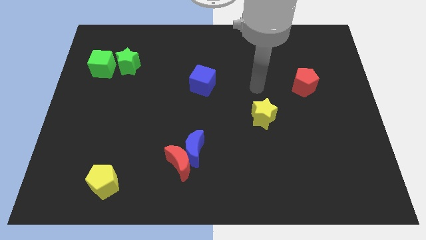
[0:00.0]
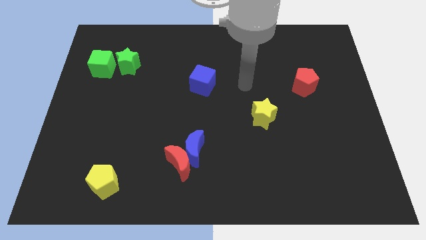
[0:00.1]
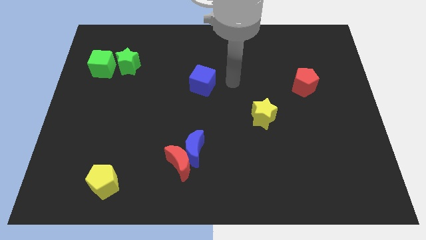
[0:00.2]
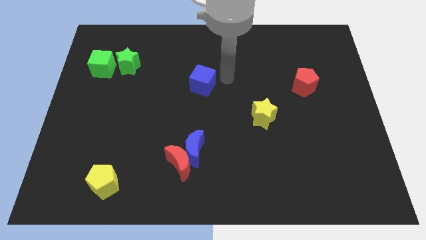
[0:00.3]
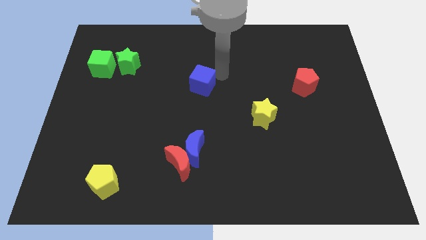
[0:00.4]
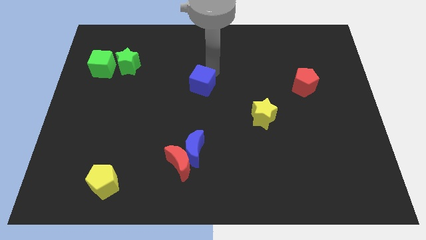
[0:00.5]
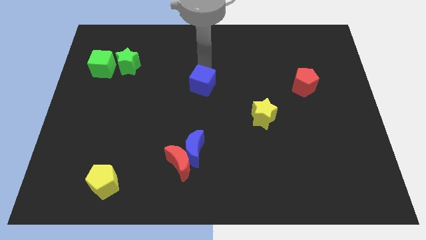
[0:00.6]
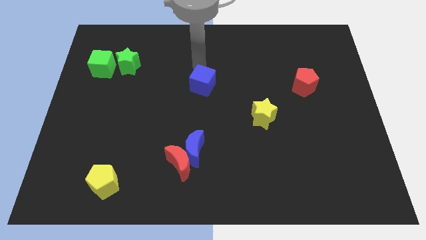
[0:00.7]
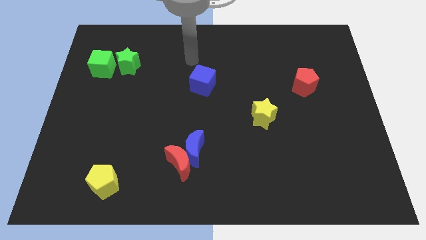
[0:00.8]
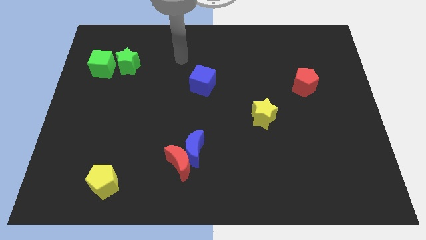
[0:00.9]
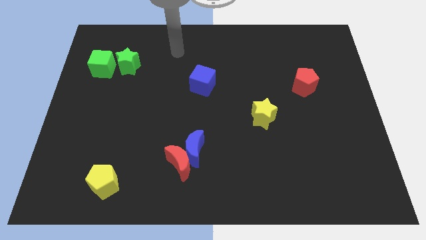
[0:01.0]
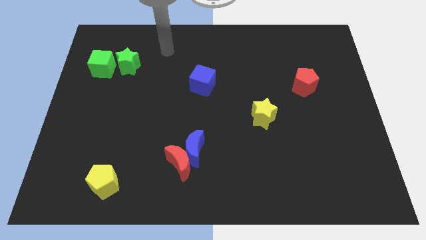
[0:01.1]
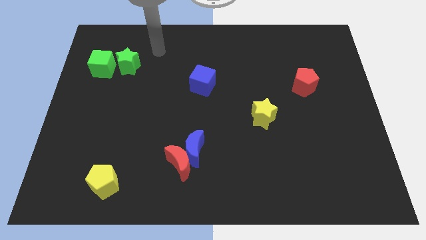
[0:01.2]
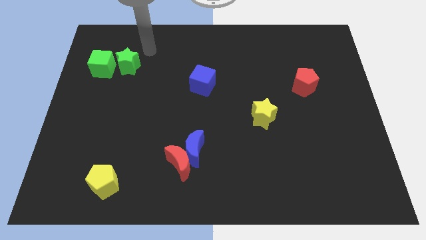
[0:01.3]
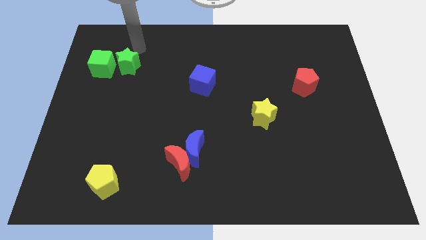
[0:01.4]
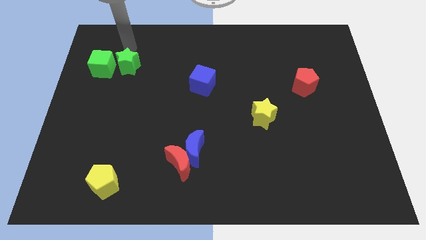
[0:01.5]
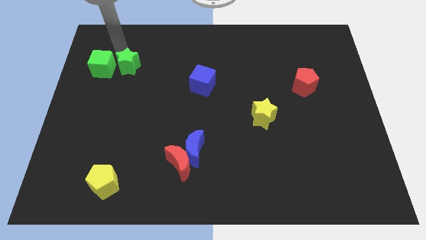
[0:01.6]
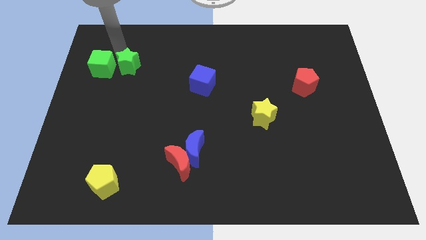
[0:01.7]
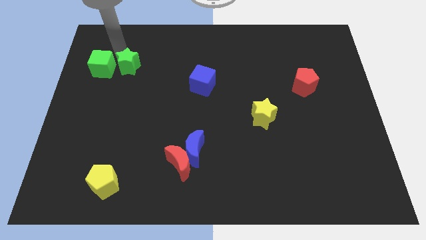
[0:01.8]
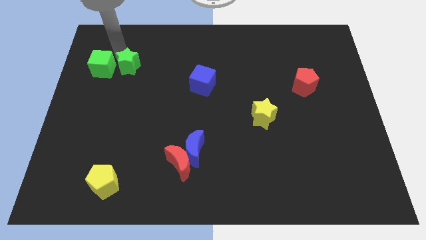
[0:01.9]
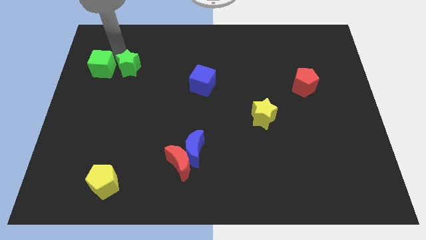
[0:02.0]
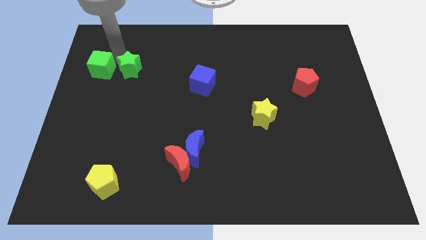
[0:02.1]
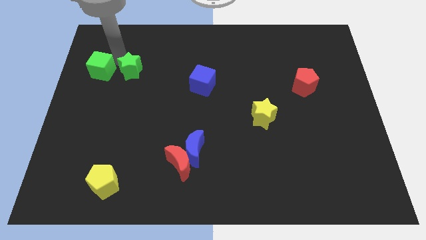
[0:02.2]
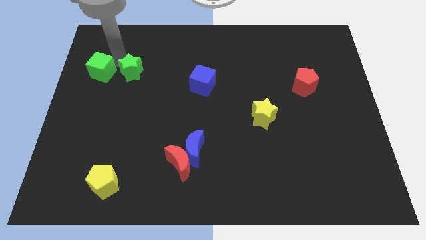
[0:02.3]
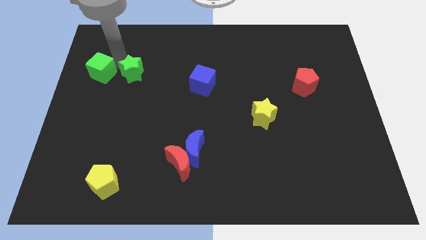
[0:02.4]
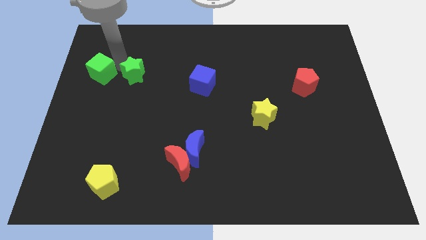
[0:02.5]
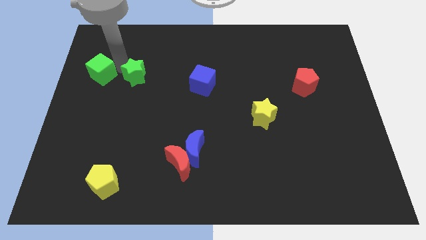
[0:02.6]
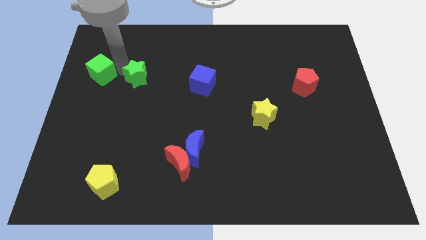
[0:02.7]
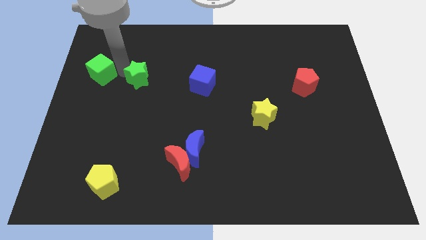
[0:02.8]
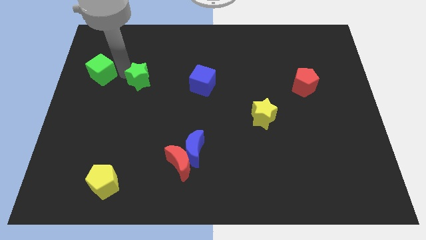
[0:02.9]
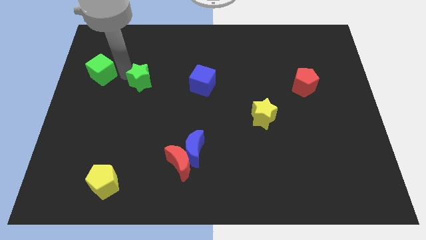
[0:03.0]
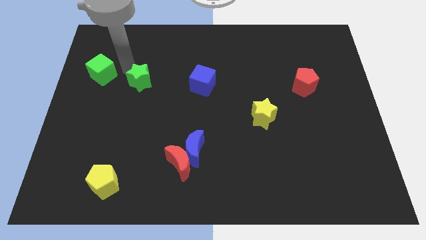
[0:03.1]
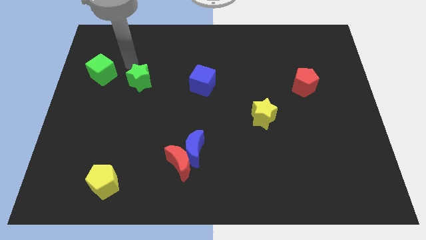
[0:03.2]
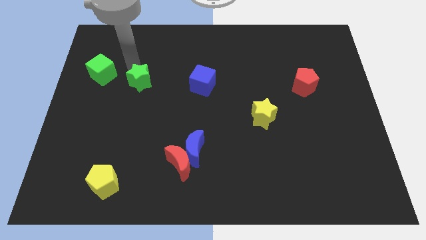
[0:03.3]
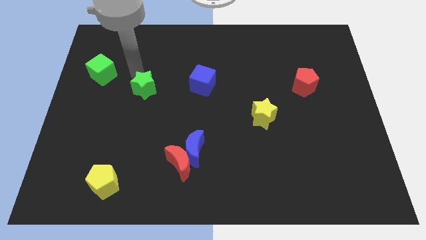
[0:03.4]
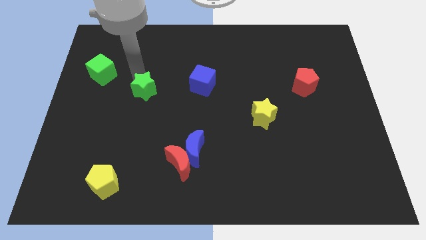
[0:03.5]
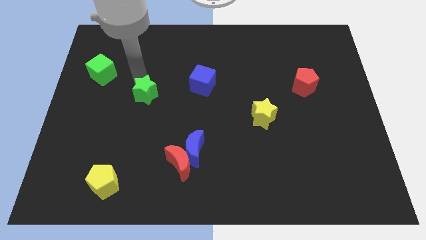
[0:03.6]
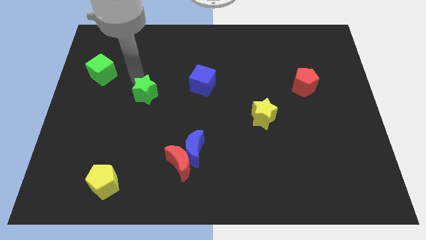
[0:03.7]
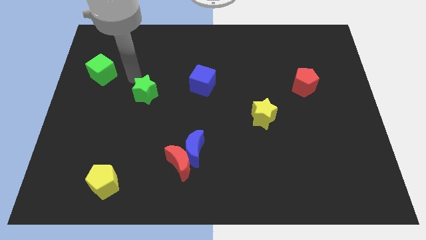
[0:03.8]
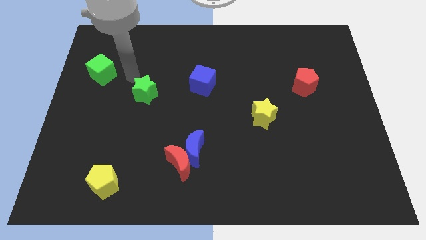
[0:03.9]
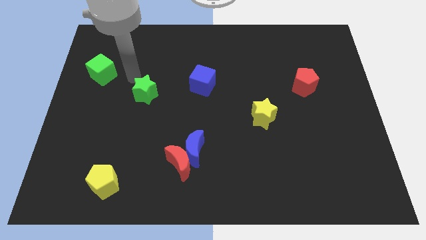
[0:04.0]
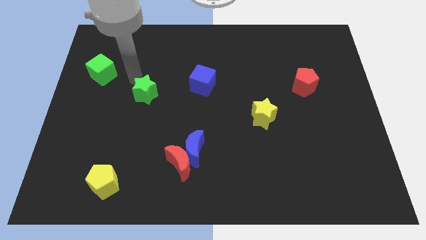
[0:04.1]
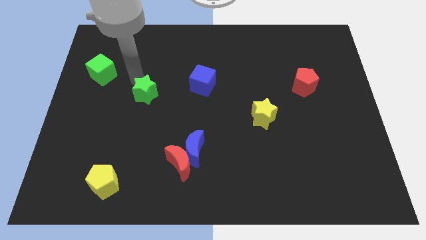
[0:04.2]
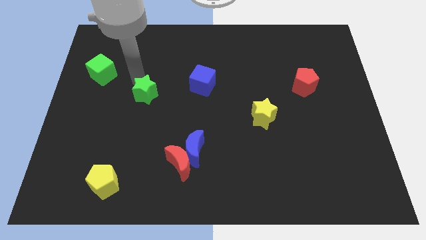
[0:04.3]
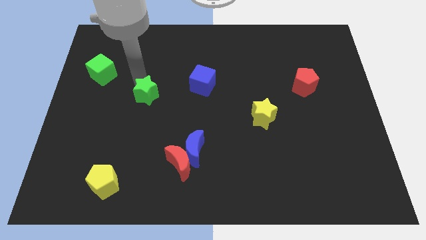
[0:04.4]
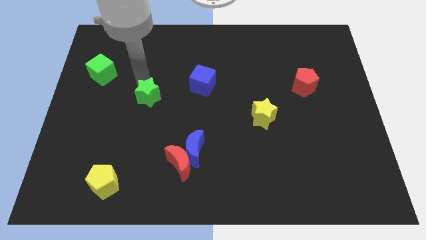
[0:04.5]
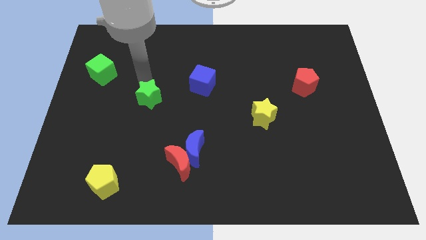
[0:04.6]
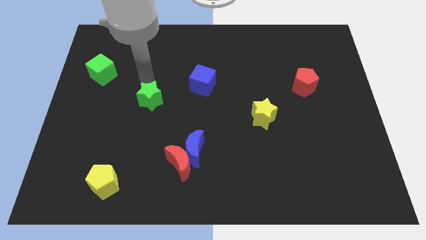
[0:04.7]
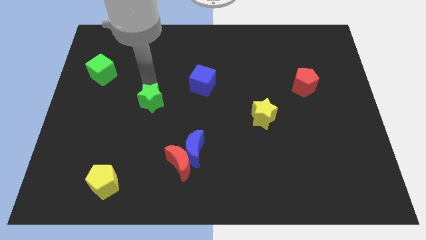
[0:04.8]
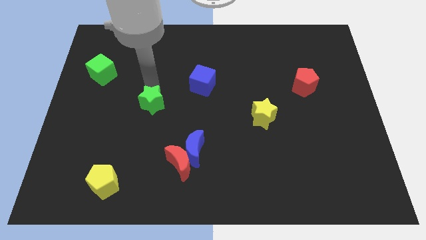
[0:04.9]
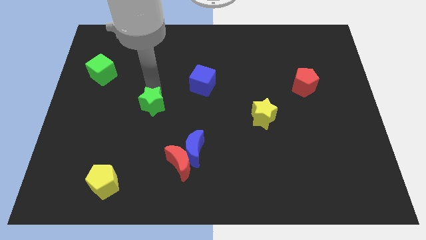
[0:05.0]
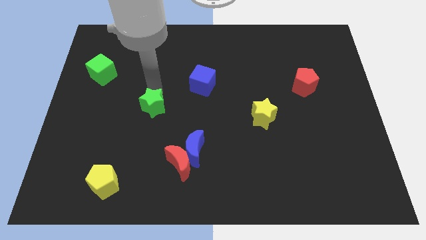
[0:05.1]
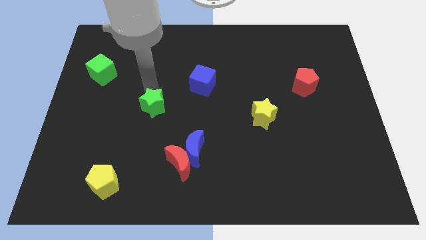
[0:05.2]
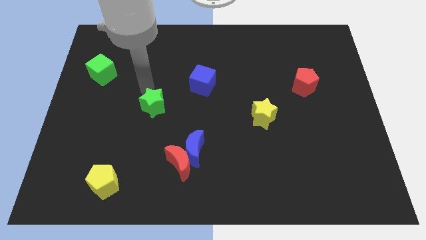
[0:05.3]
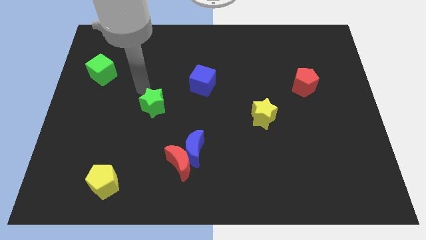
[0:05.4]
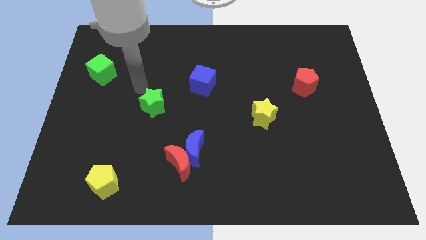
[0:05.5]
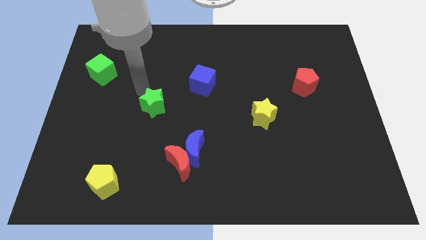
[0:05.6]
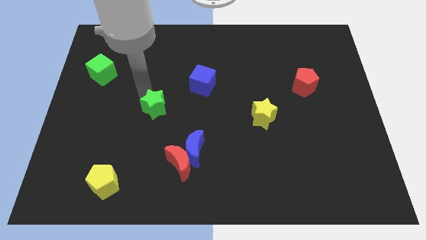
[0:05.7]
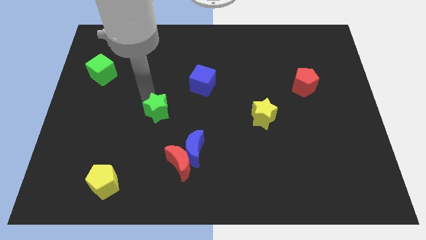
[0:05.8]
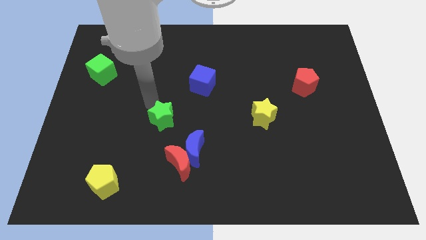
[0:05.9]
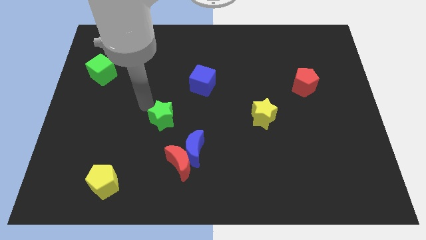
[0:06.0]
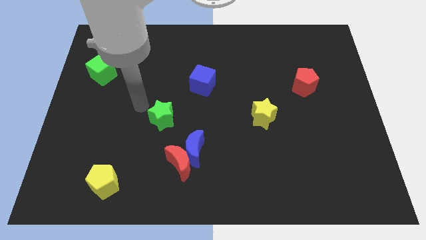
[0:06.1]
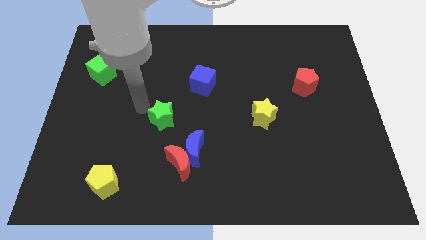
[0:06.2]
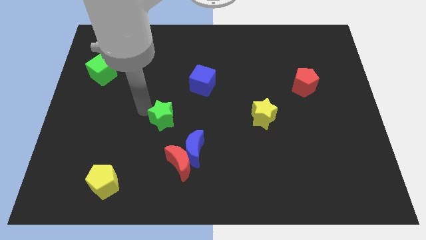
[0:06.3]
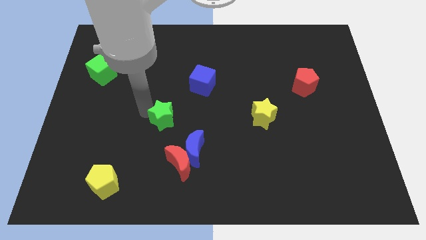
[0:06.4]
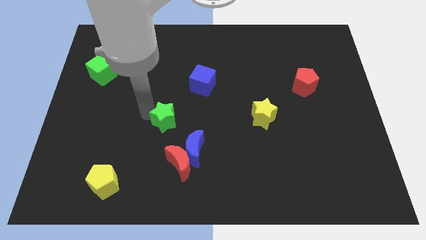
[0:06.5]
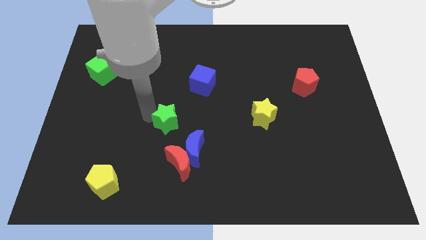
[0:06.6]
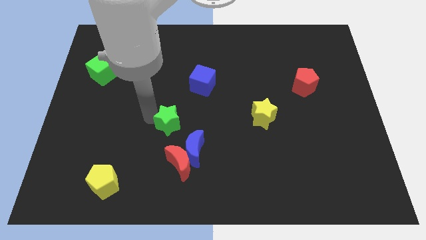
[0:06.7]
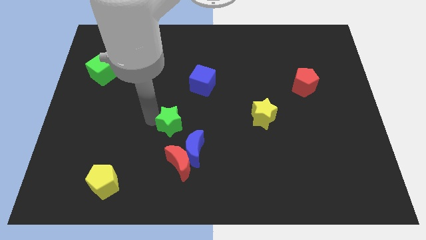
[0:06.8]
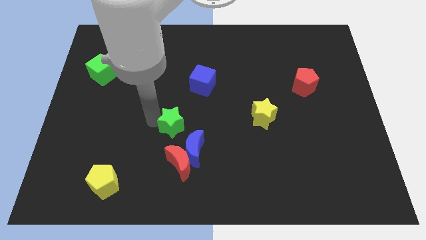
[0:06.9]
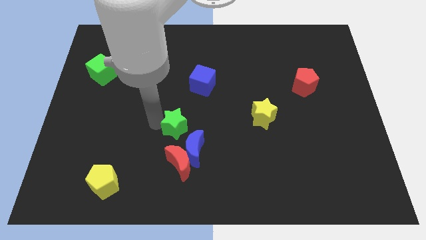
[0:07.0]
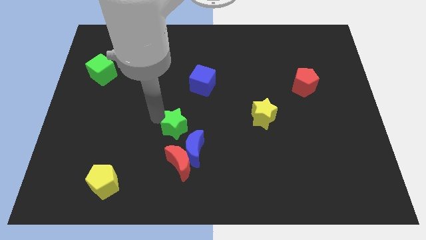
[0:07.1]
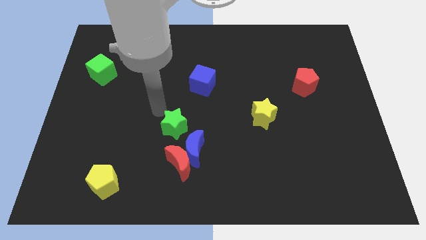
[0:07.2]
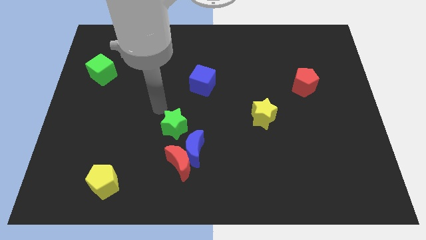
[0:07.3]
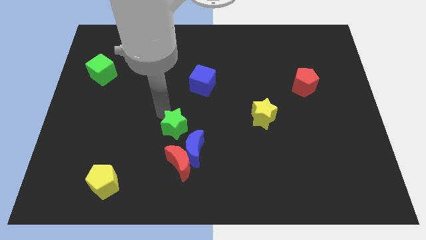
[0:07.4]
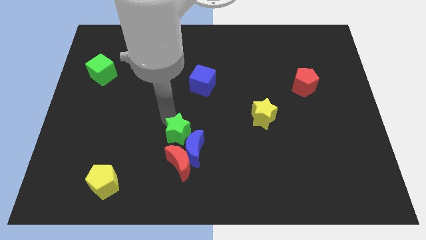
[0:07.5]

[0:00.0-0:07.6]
move the green star to the blue moon
